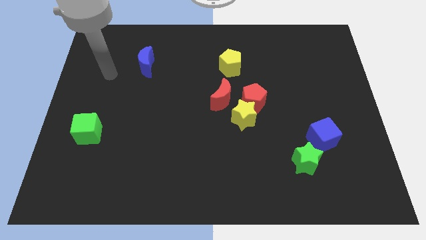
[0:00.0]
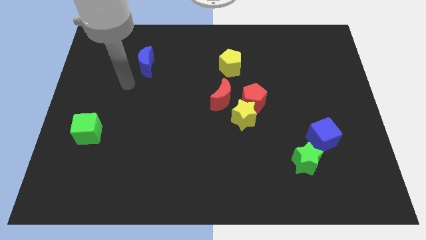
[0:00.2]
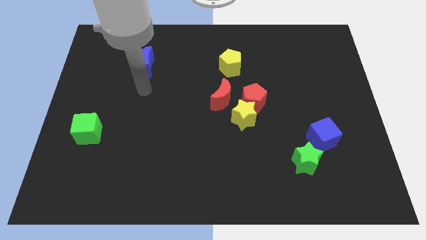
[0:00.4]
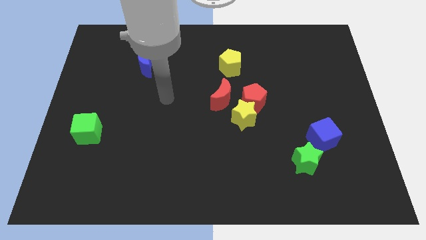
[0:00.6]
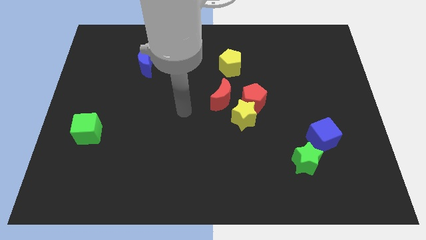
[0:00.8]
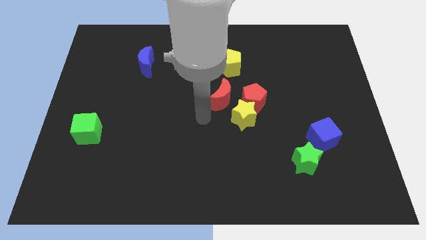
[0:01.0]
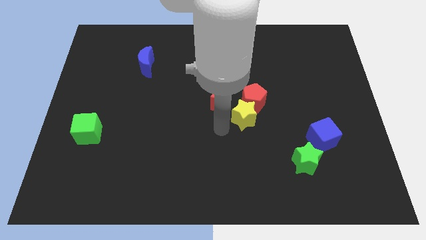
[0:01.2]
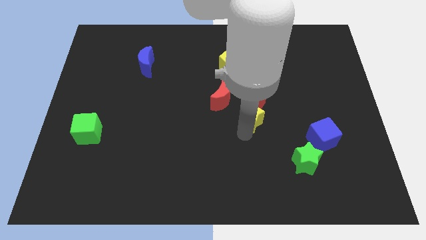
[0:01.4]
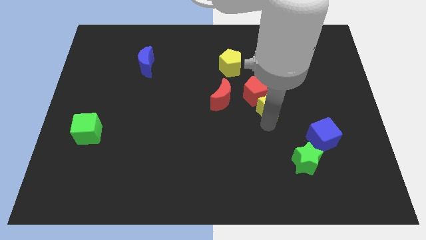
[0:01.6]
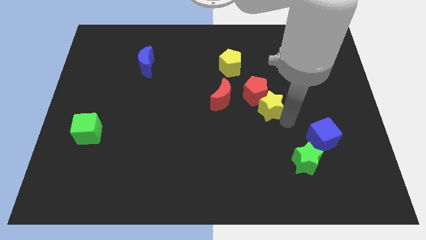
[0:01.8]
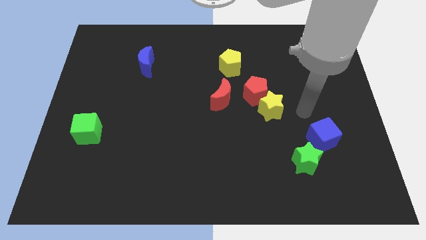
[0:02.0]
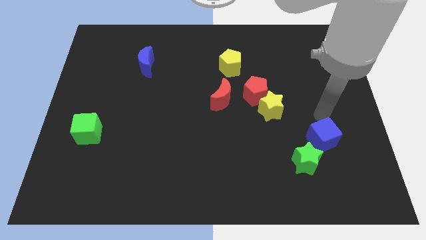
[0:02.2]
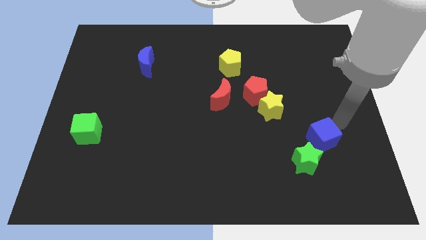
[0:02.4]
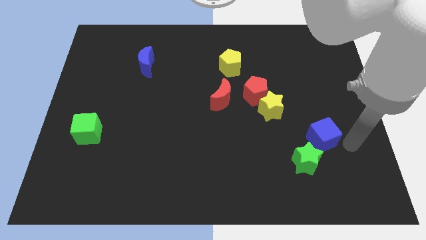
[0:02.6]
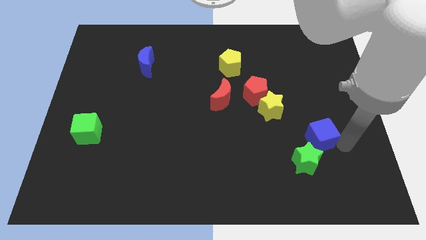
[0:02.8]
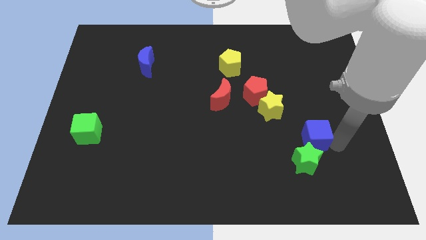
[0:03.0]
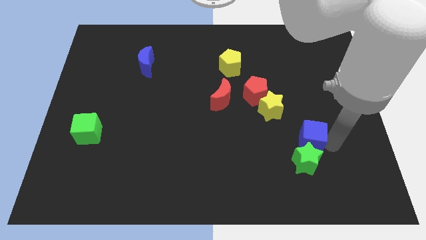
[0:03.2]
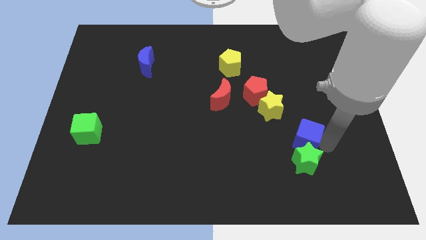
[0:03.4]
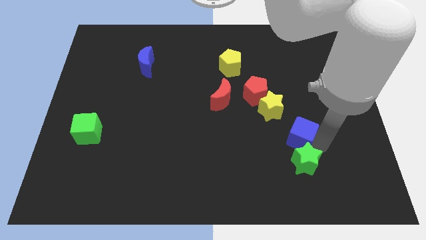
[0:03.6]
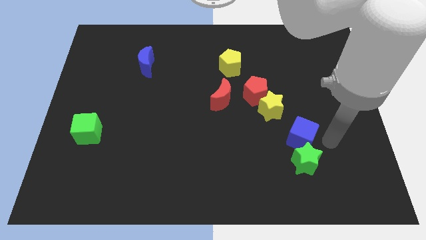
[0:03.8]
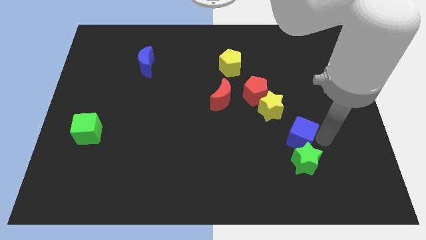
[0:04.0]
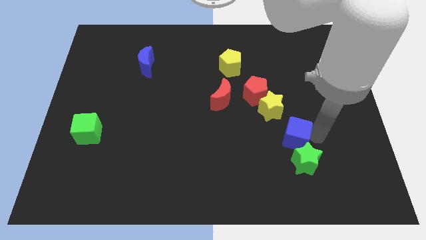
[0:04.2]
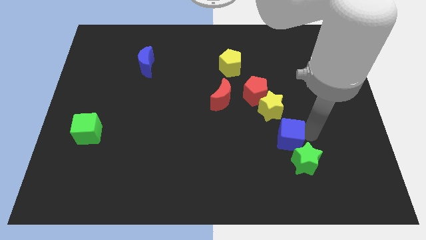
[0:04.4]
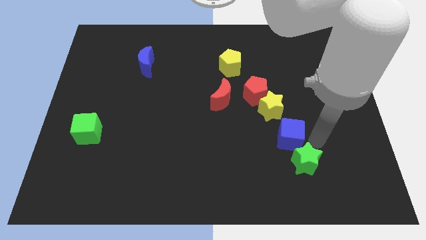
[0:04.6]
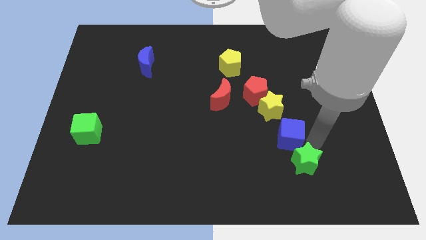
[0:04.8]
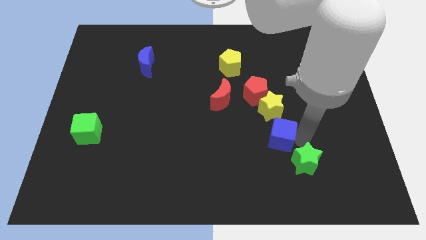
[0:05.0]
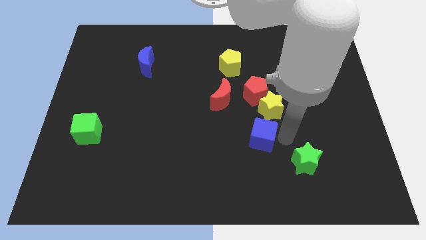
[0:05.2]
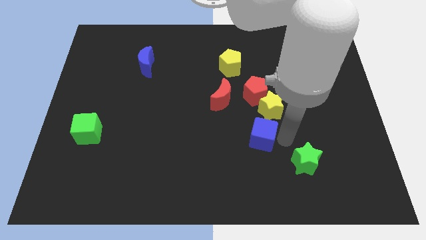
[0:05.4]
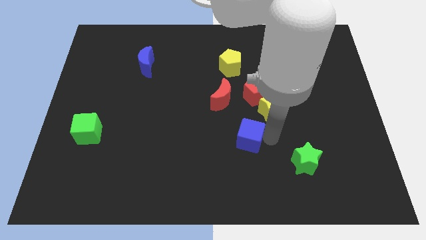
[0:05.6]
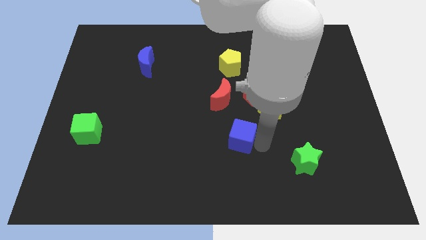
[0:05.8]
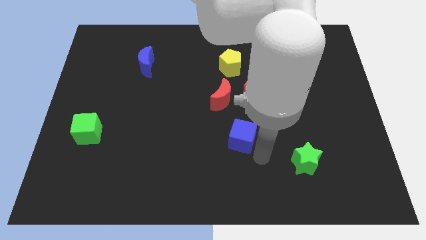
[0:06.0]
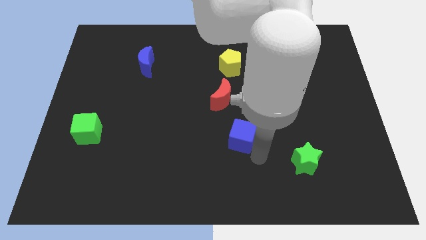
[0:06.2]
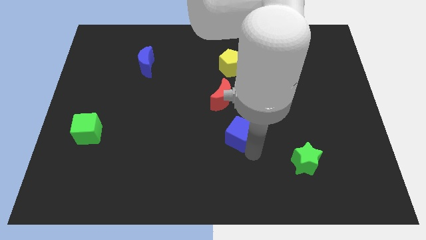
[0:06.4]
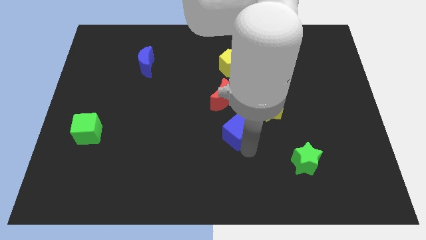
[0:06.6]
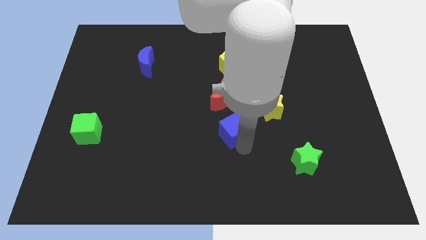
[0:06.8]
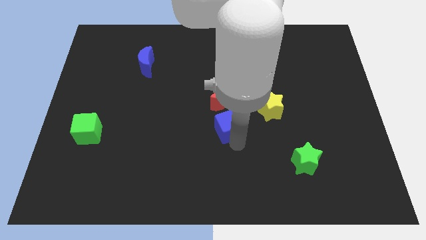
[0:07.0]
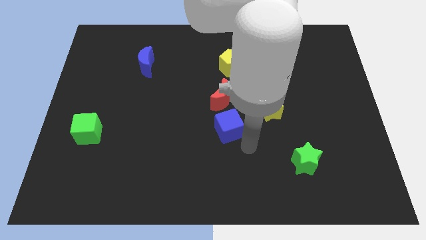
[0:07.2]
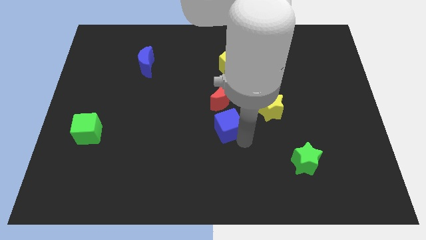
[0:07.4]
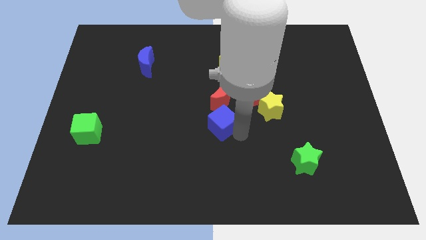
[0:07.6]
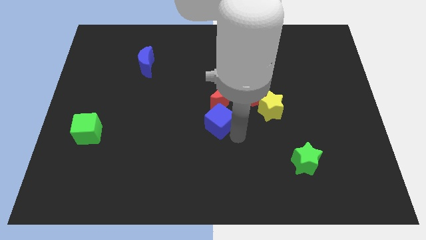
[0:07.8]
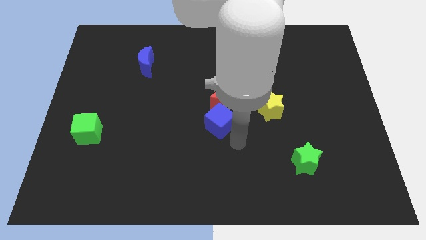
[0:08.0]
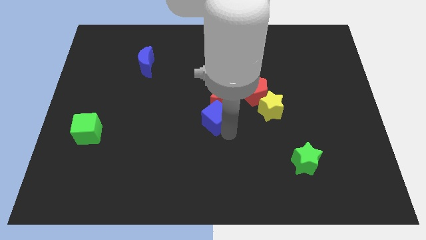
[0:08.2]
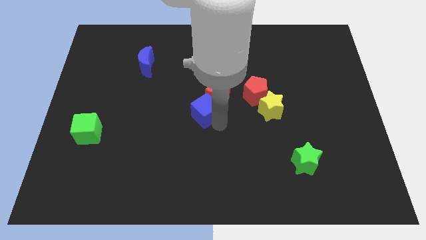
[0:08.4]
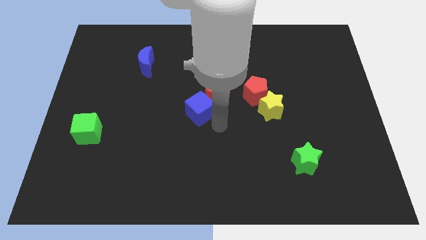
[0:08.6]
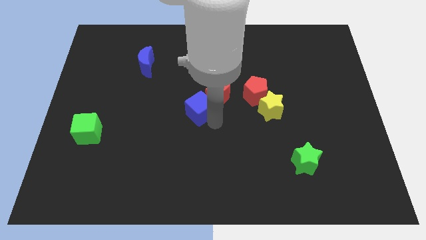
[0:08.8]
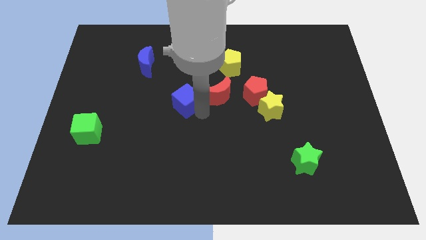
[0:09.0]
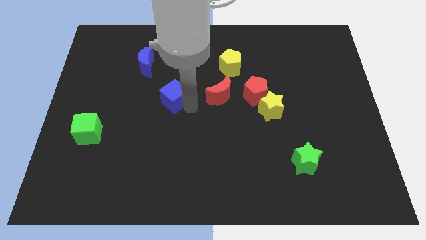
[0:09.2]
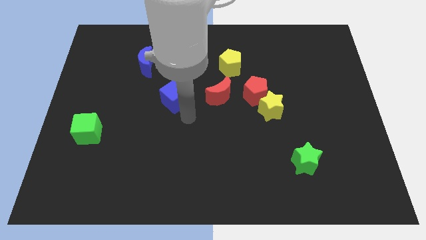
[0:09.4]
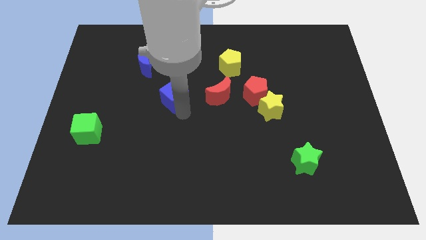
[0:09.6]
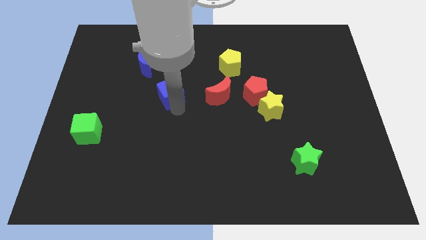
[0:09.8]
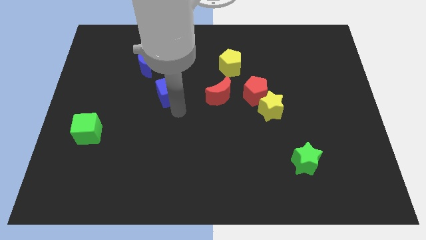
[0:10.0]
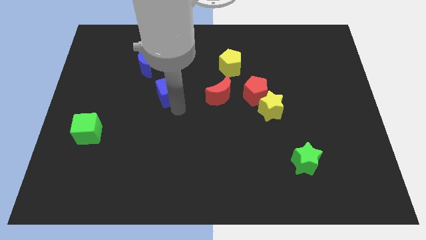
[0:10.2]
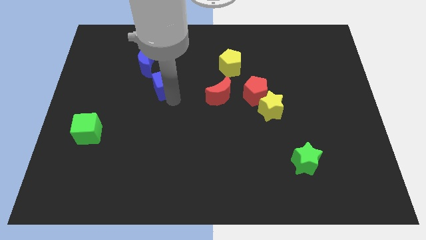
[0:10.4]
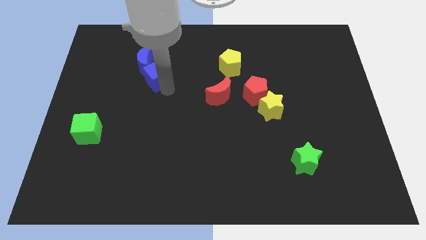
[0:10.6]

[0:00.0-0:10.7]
slide the blue cube close to the blue moon

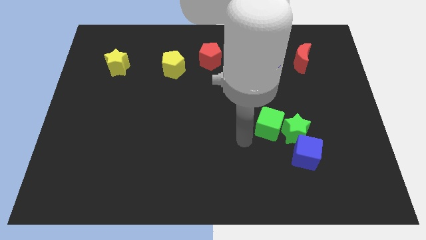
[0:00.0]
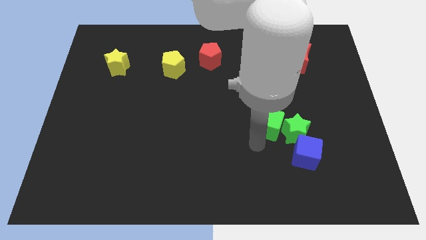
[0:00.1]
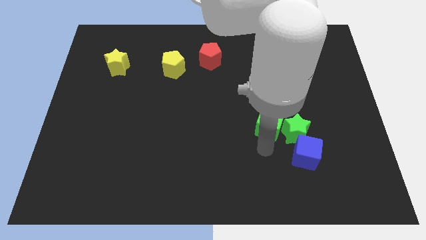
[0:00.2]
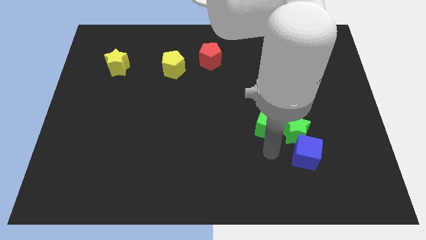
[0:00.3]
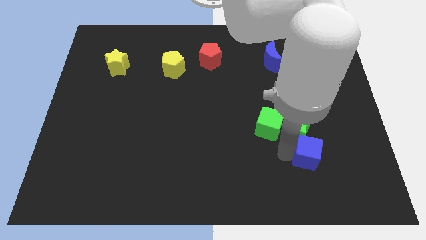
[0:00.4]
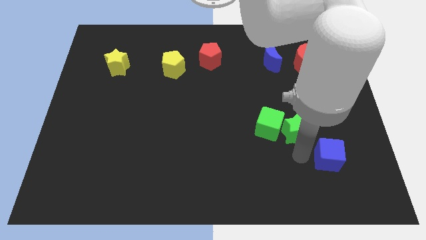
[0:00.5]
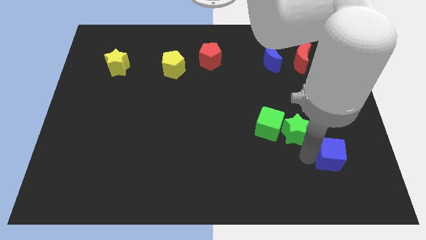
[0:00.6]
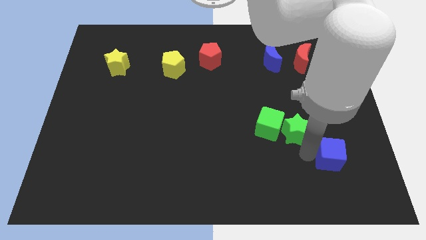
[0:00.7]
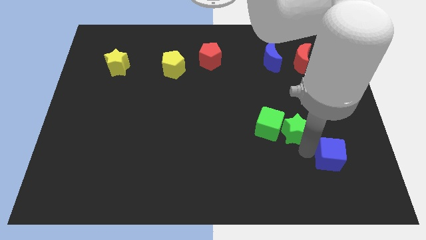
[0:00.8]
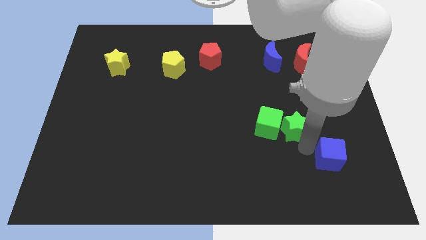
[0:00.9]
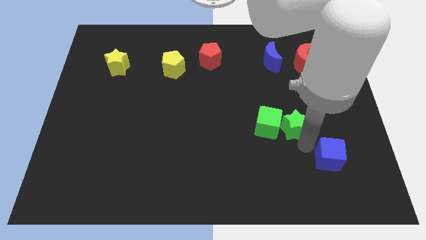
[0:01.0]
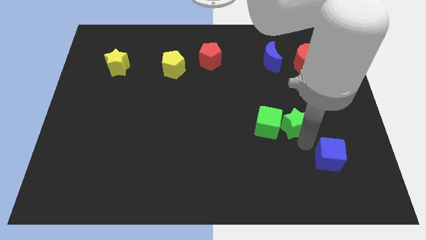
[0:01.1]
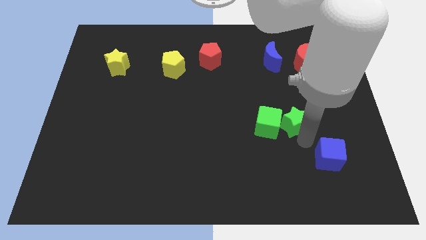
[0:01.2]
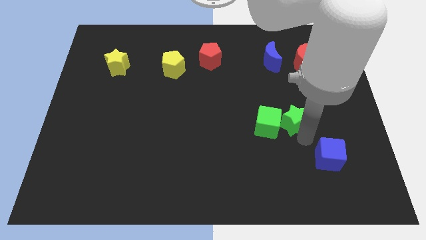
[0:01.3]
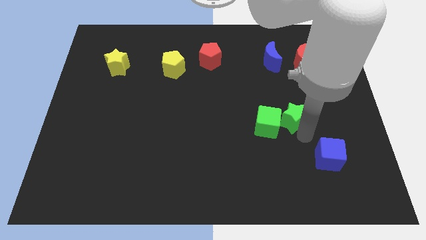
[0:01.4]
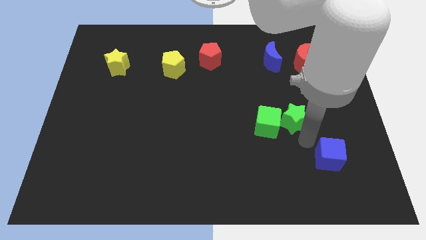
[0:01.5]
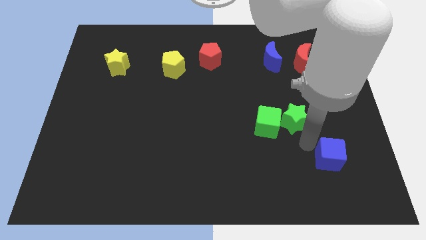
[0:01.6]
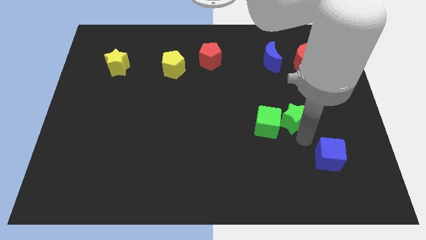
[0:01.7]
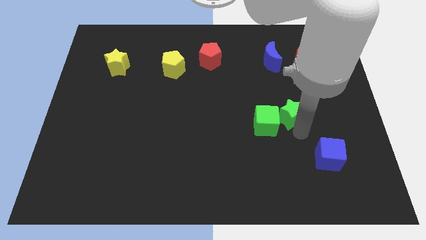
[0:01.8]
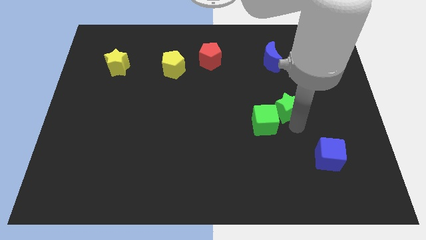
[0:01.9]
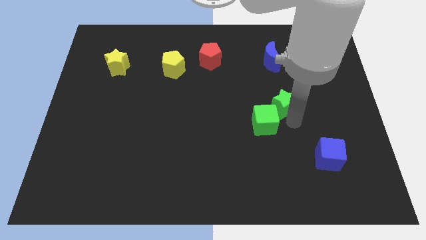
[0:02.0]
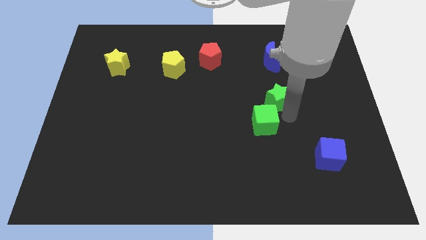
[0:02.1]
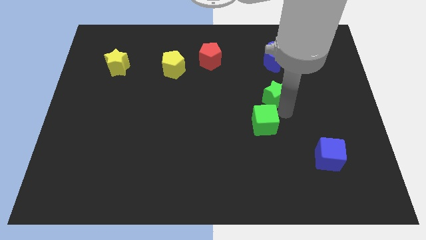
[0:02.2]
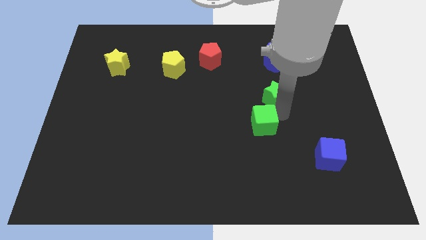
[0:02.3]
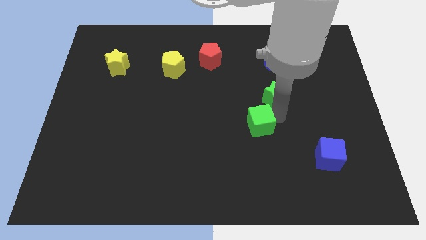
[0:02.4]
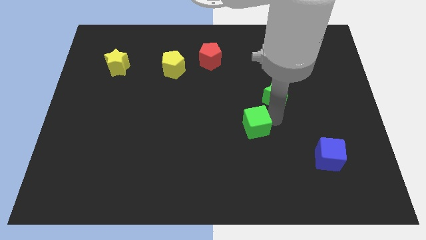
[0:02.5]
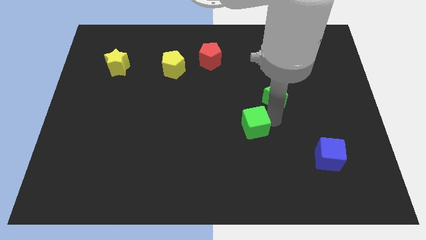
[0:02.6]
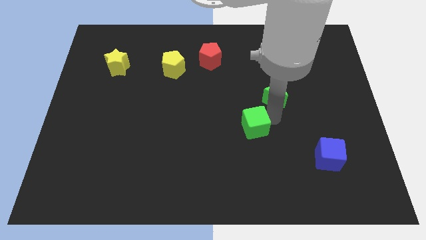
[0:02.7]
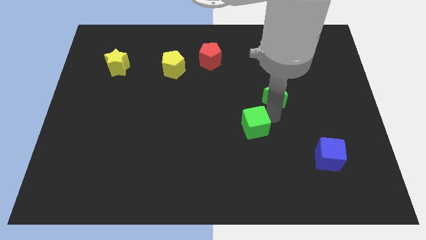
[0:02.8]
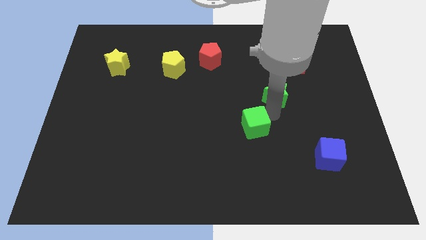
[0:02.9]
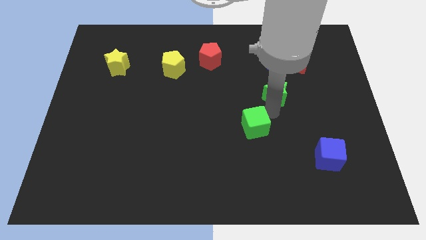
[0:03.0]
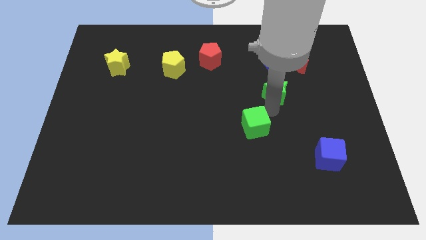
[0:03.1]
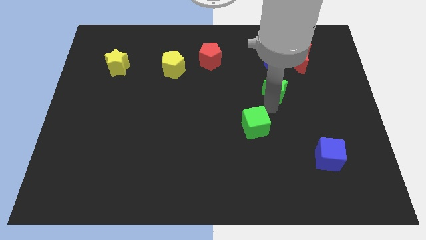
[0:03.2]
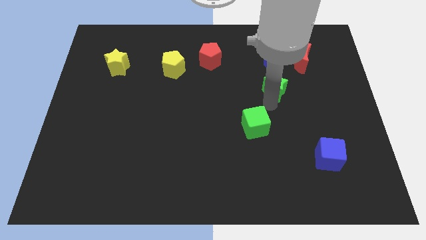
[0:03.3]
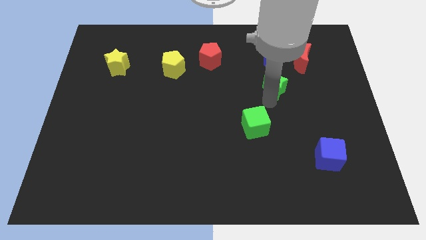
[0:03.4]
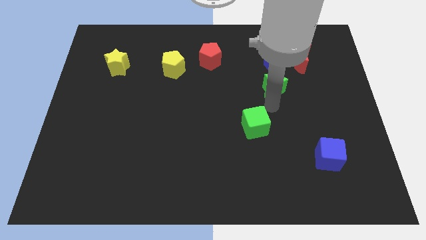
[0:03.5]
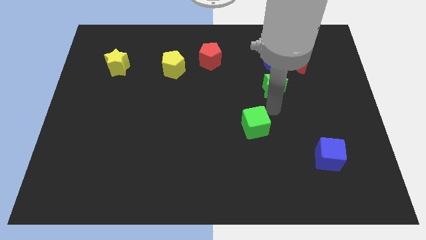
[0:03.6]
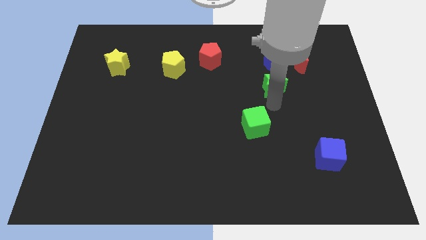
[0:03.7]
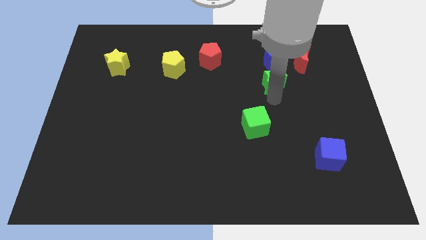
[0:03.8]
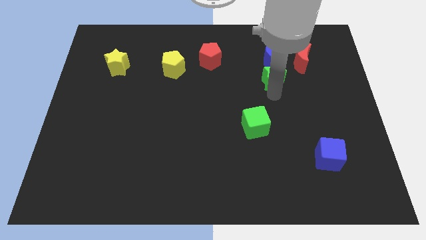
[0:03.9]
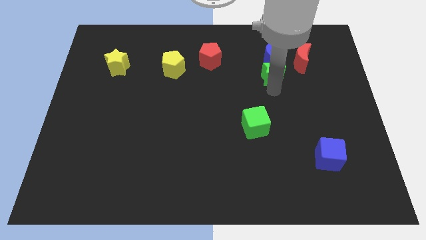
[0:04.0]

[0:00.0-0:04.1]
move the green star to the blue moon
